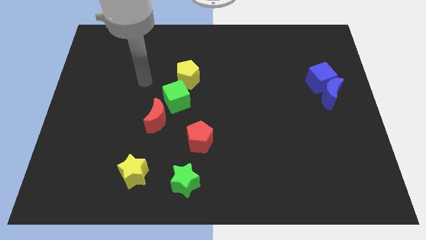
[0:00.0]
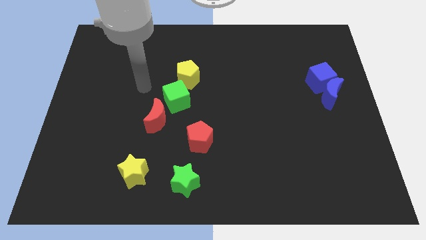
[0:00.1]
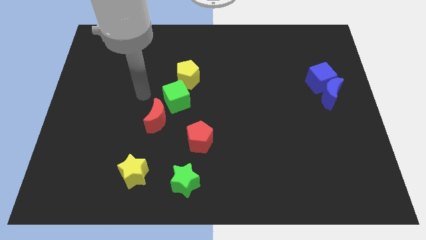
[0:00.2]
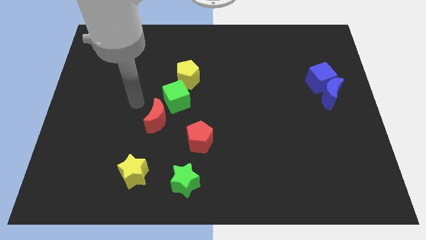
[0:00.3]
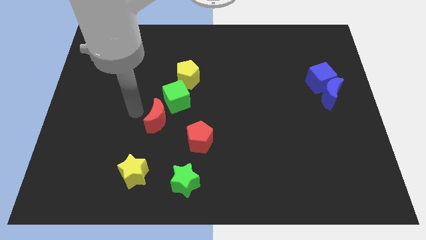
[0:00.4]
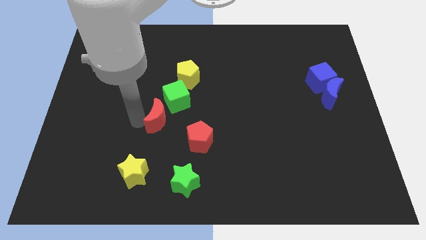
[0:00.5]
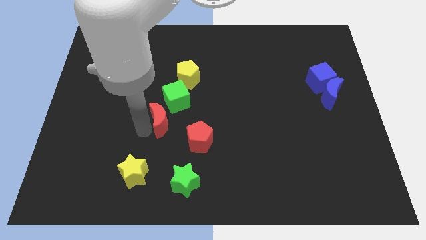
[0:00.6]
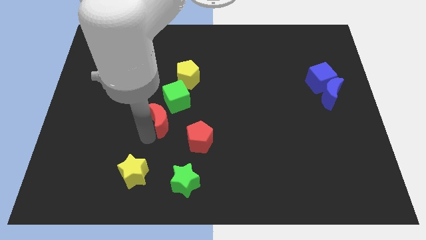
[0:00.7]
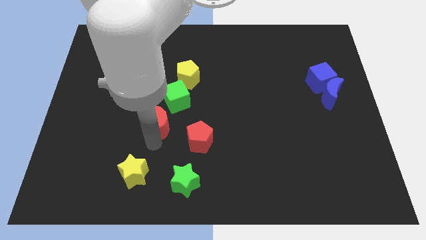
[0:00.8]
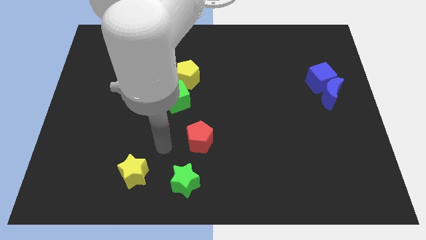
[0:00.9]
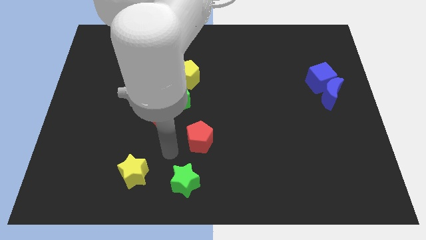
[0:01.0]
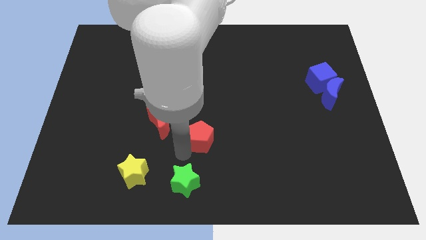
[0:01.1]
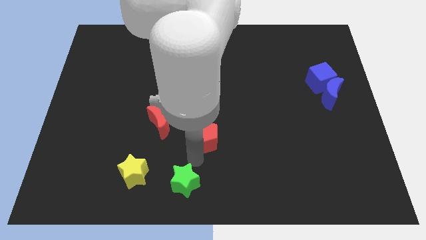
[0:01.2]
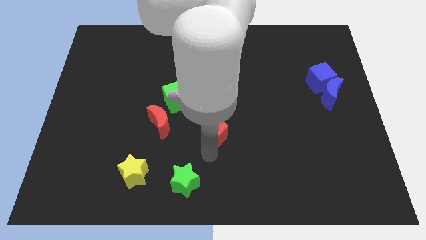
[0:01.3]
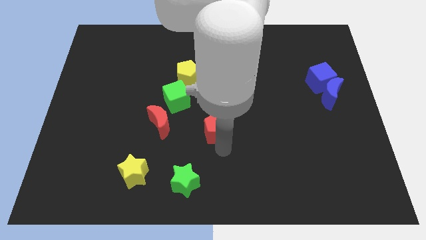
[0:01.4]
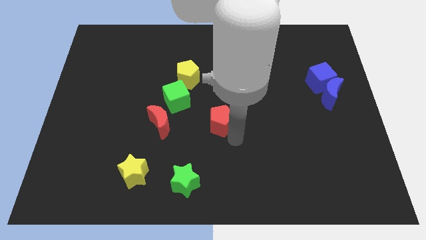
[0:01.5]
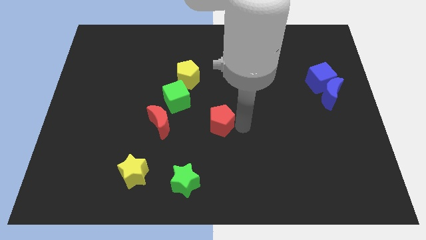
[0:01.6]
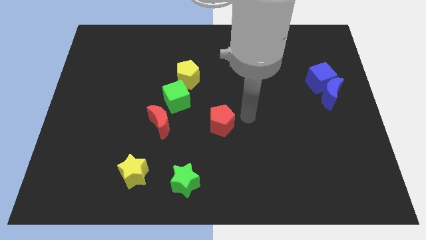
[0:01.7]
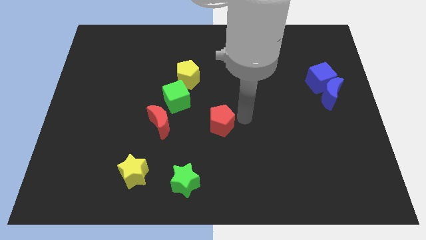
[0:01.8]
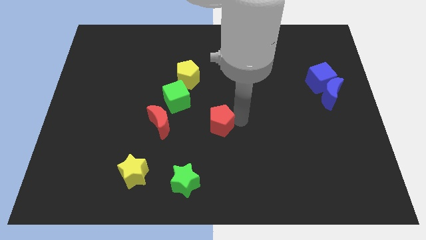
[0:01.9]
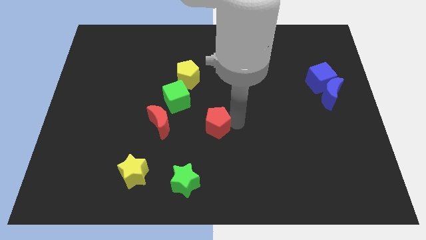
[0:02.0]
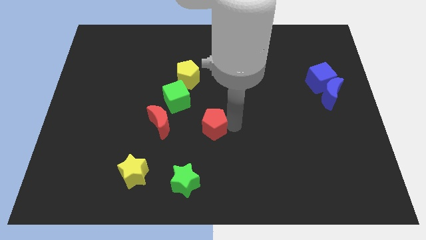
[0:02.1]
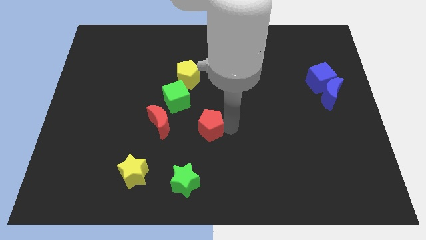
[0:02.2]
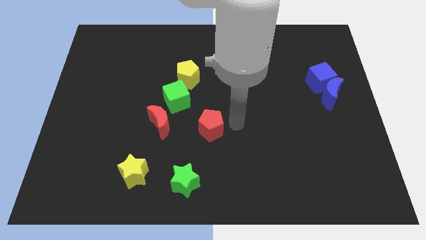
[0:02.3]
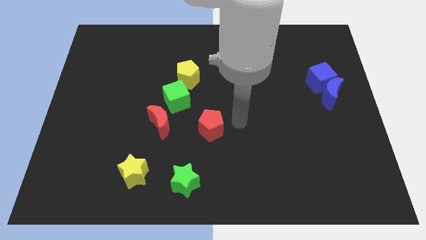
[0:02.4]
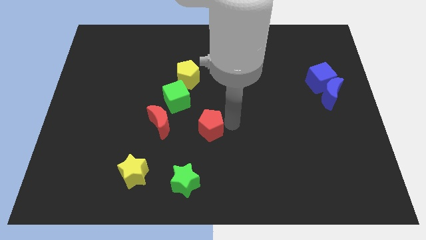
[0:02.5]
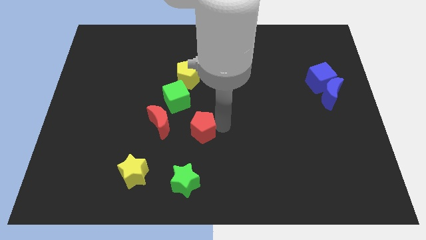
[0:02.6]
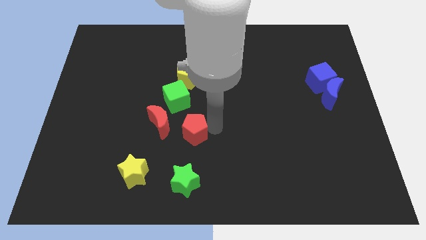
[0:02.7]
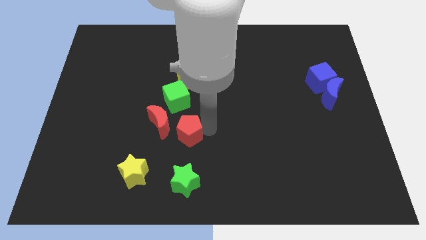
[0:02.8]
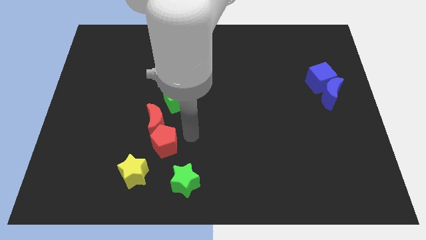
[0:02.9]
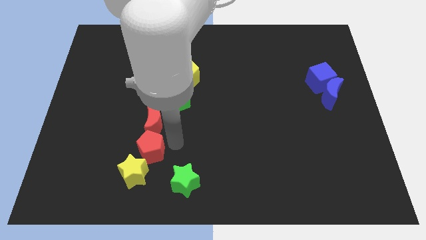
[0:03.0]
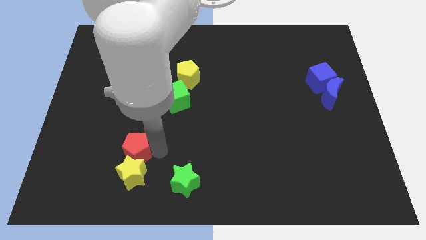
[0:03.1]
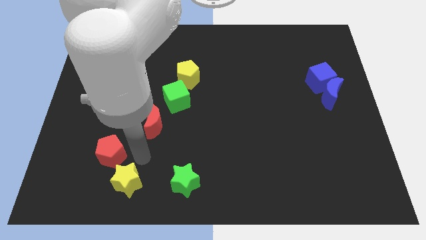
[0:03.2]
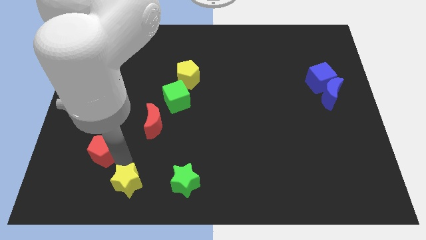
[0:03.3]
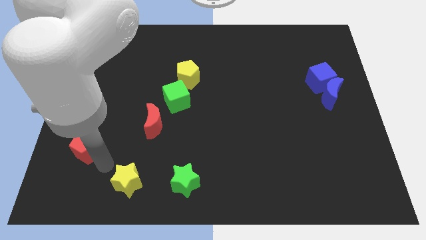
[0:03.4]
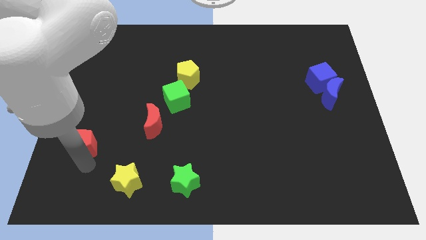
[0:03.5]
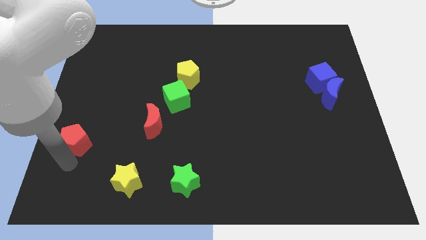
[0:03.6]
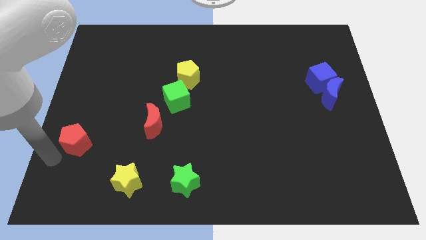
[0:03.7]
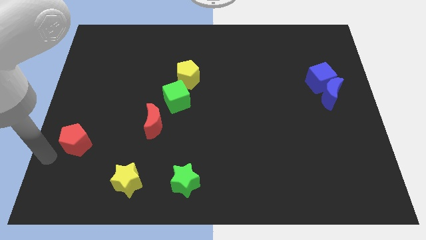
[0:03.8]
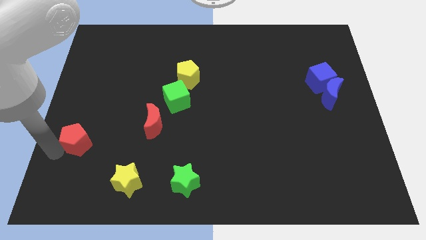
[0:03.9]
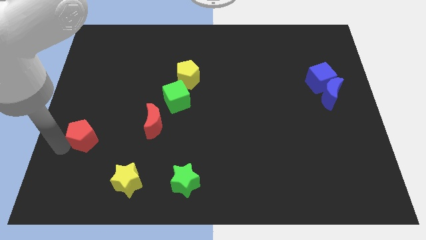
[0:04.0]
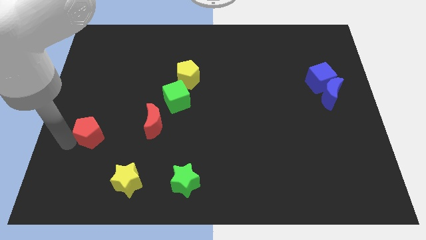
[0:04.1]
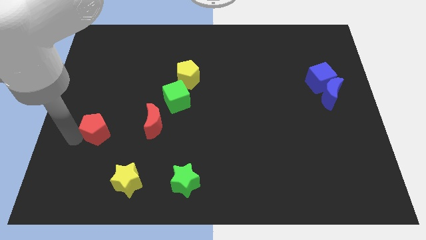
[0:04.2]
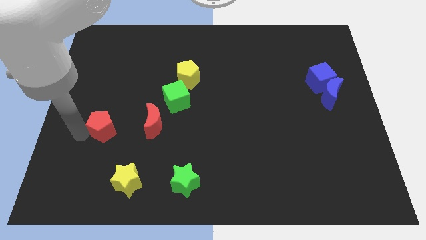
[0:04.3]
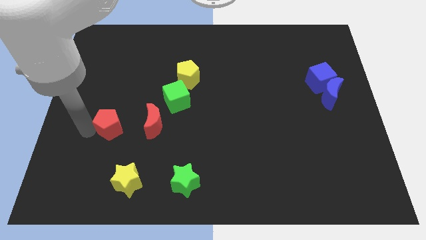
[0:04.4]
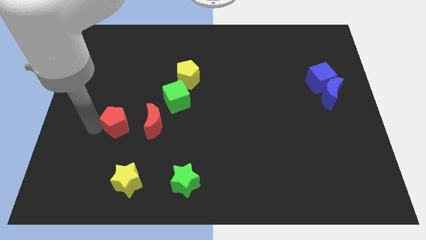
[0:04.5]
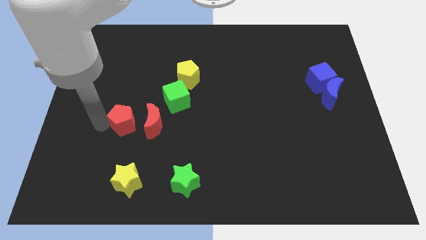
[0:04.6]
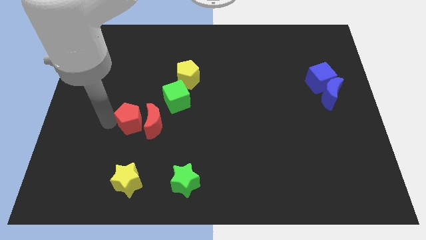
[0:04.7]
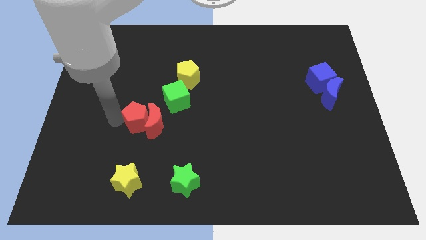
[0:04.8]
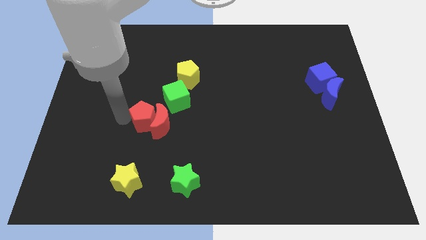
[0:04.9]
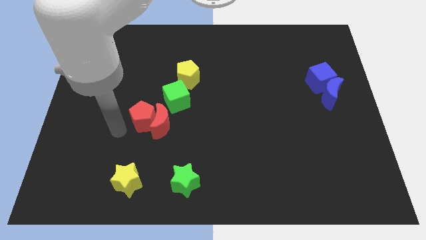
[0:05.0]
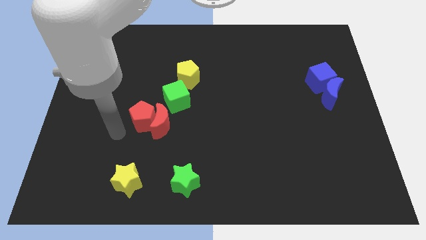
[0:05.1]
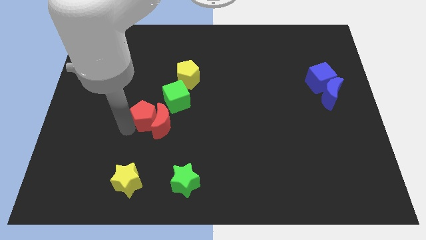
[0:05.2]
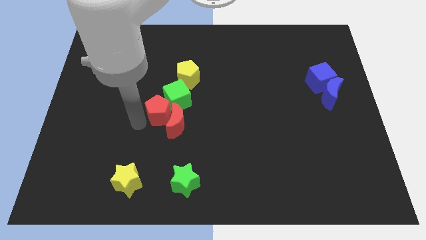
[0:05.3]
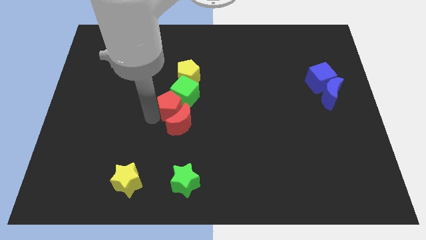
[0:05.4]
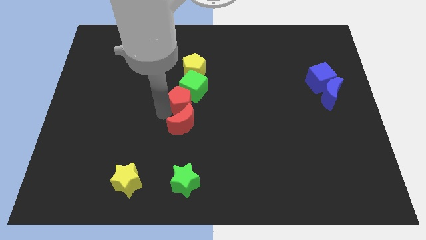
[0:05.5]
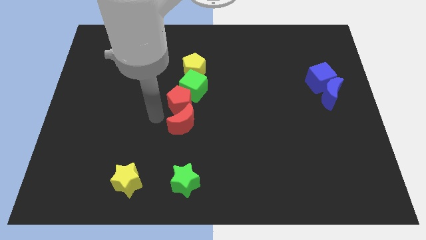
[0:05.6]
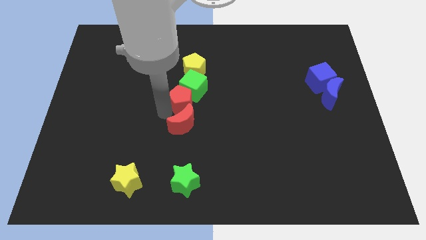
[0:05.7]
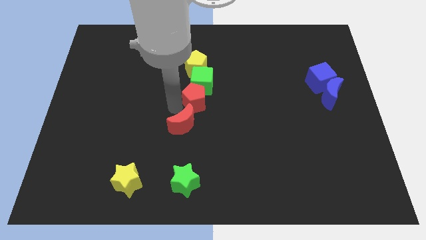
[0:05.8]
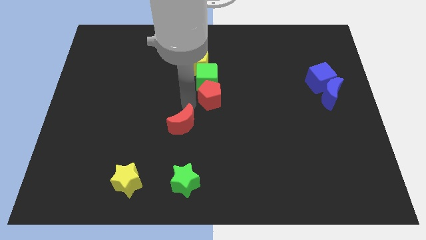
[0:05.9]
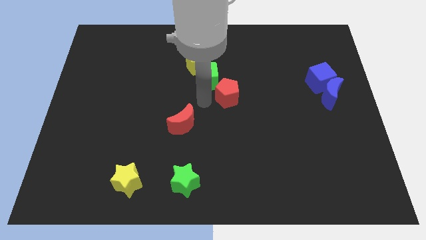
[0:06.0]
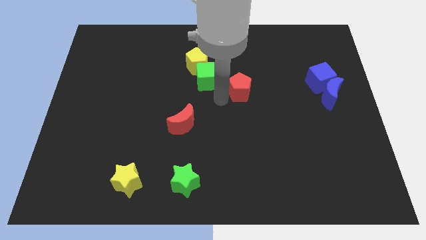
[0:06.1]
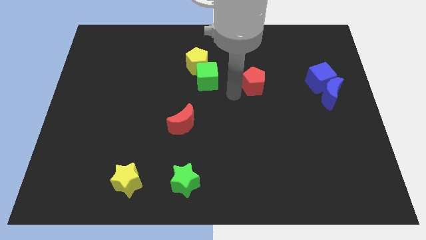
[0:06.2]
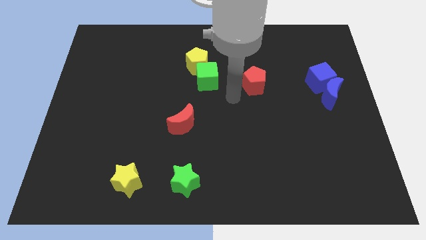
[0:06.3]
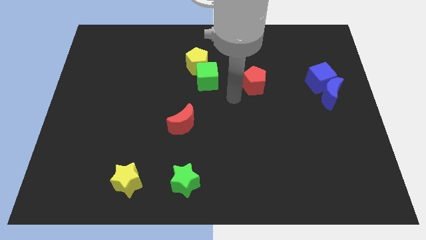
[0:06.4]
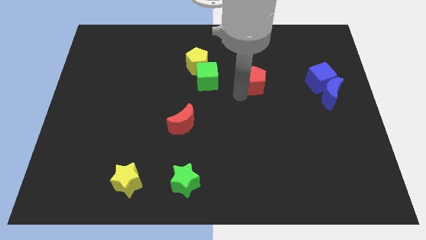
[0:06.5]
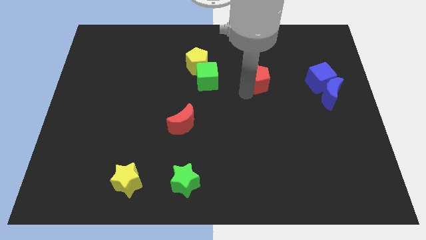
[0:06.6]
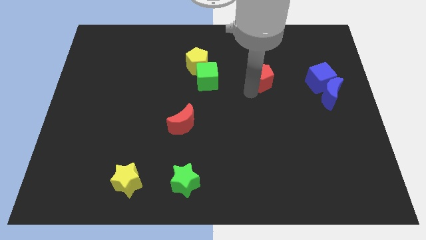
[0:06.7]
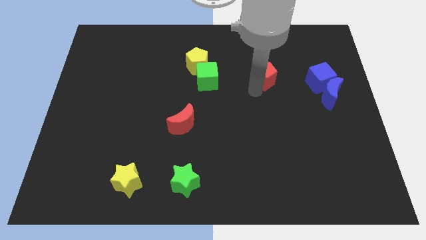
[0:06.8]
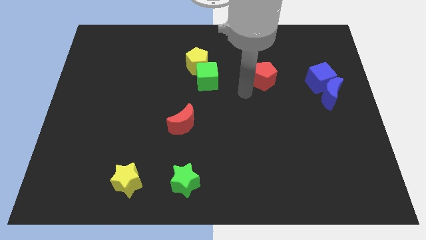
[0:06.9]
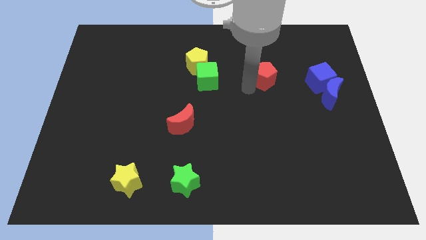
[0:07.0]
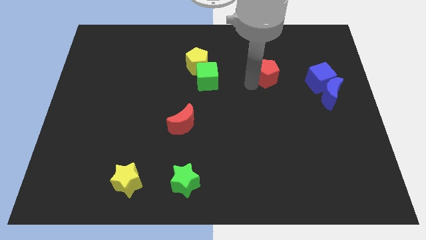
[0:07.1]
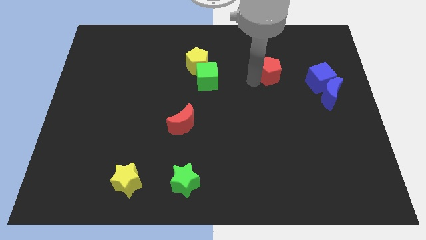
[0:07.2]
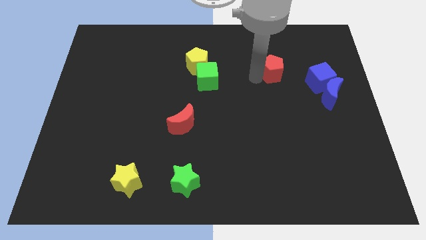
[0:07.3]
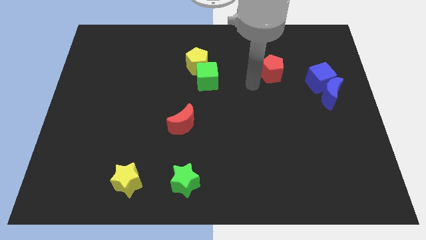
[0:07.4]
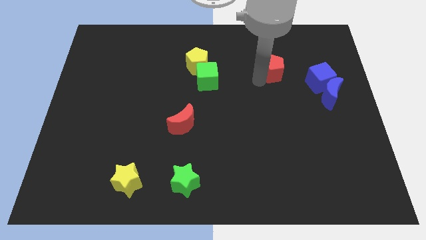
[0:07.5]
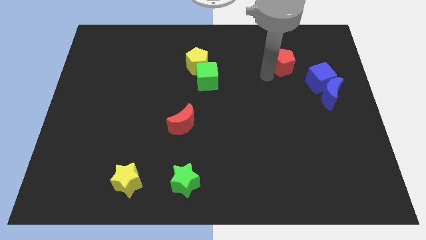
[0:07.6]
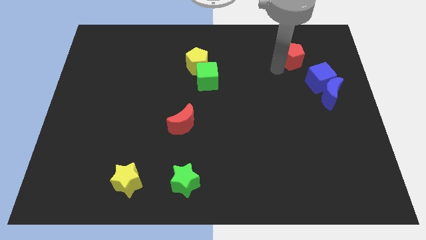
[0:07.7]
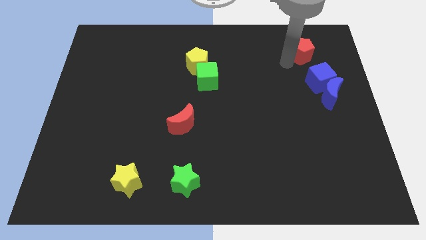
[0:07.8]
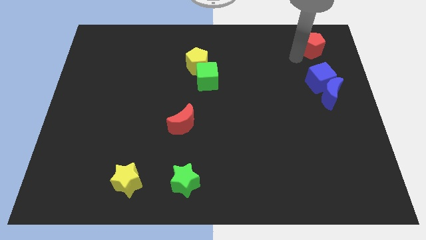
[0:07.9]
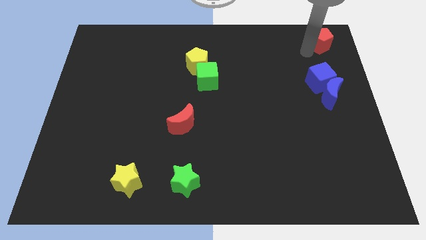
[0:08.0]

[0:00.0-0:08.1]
move the red pentagon to the top right of the board
